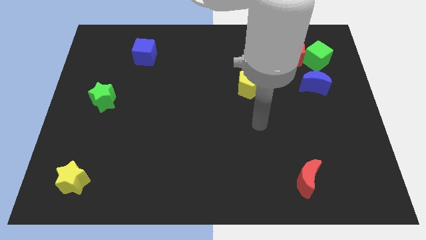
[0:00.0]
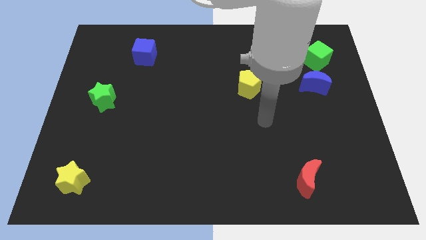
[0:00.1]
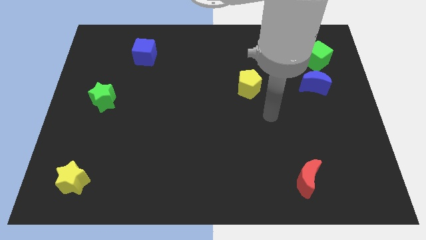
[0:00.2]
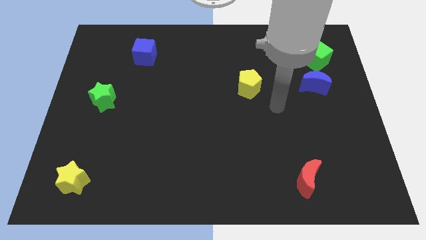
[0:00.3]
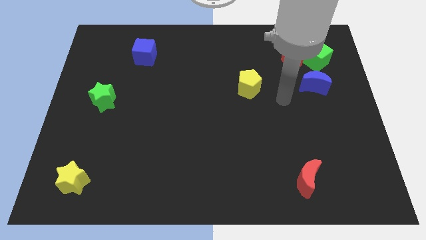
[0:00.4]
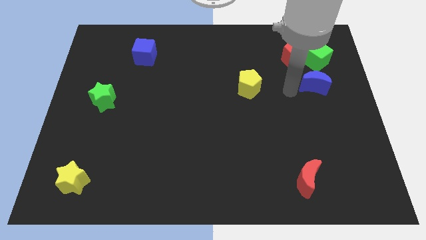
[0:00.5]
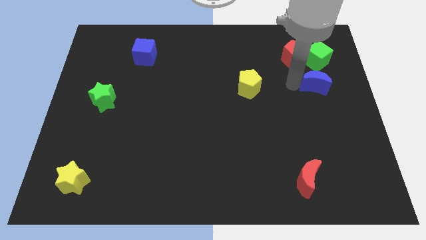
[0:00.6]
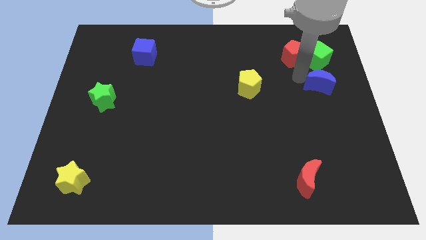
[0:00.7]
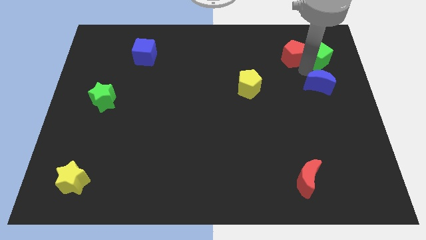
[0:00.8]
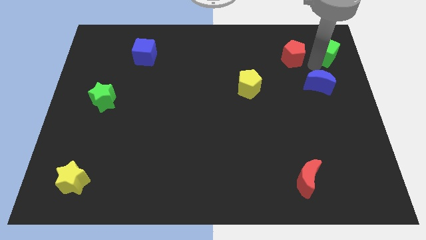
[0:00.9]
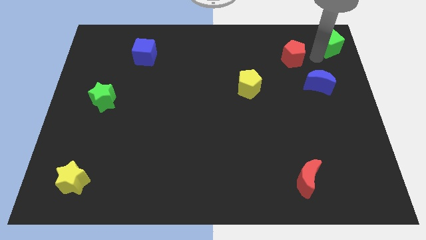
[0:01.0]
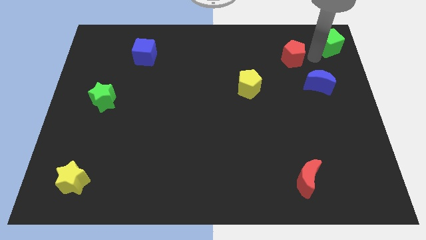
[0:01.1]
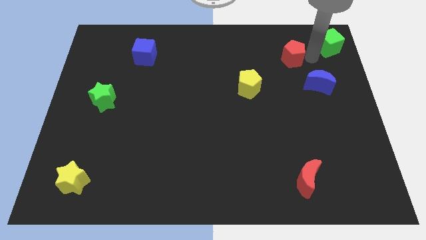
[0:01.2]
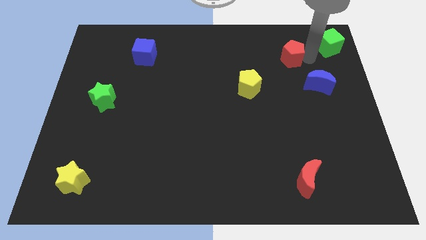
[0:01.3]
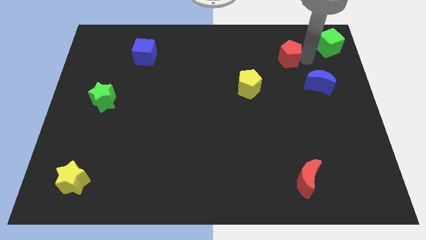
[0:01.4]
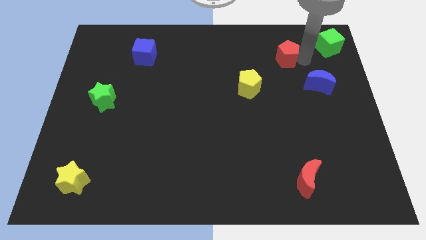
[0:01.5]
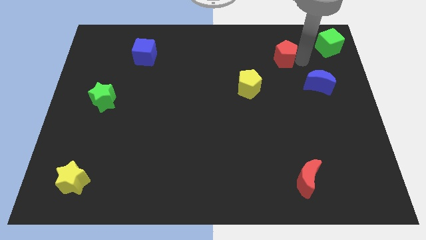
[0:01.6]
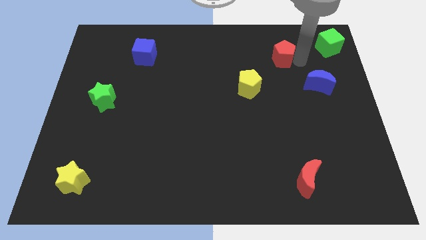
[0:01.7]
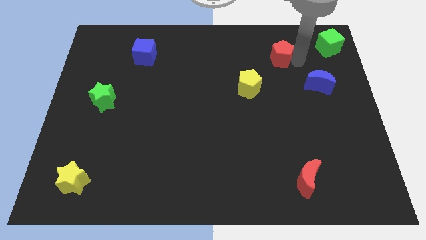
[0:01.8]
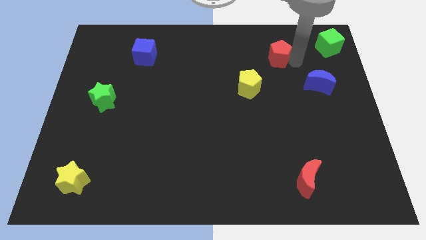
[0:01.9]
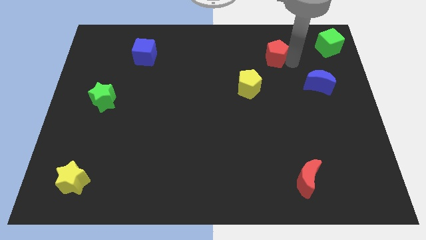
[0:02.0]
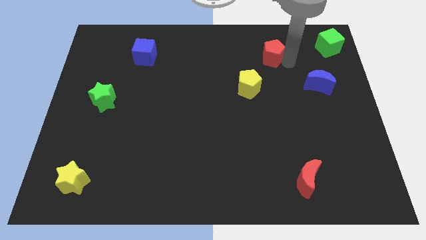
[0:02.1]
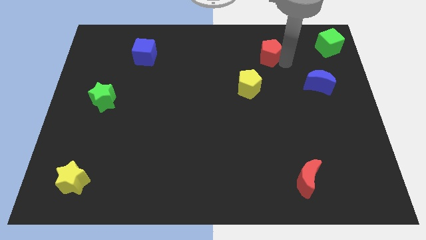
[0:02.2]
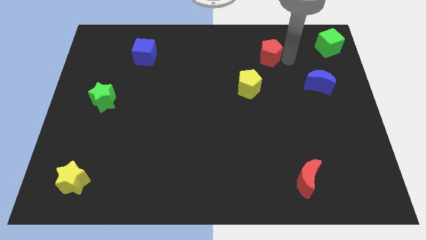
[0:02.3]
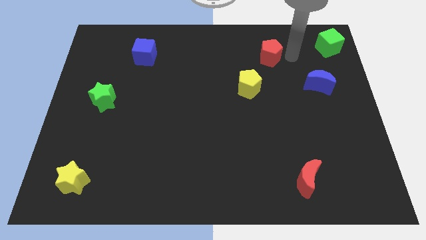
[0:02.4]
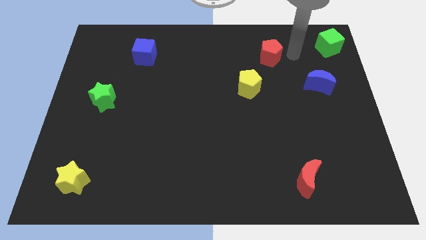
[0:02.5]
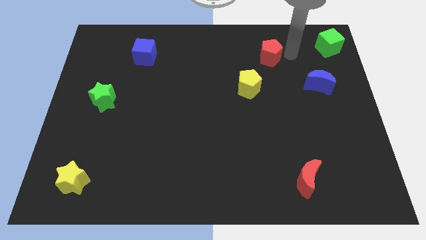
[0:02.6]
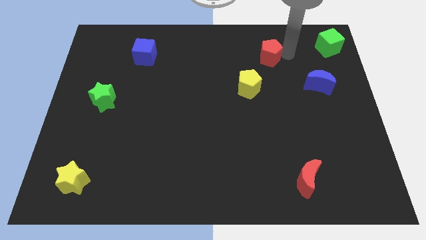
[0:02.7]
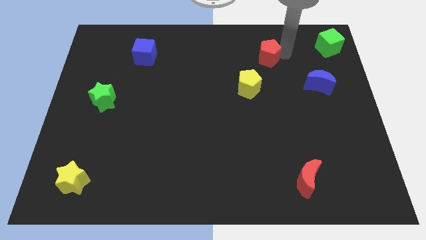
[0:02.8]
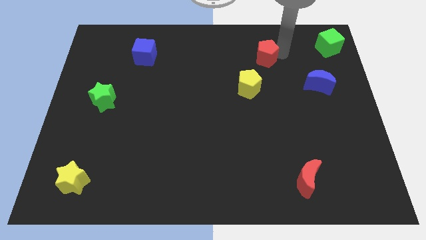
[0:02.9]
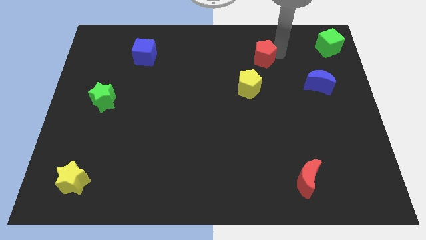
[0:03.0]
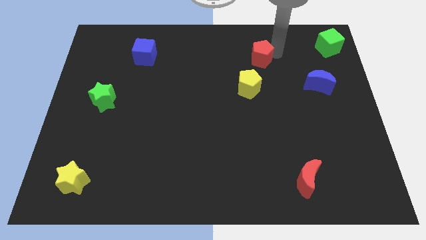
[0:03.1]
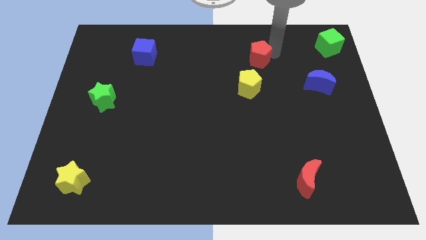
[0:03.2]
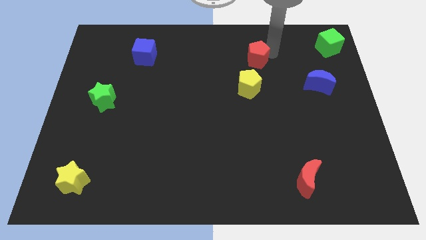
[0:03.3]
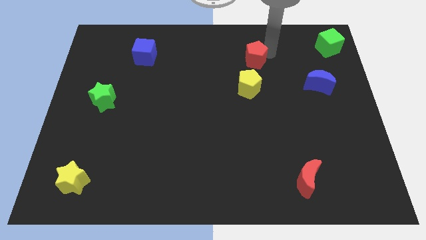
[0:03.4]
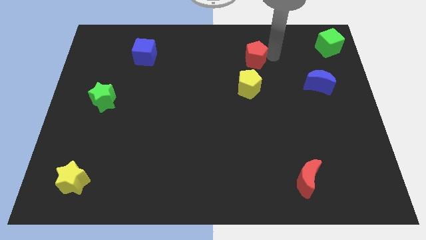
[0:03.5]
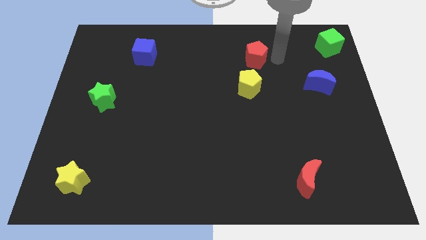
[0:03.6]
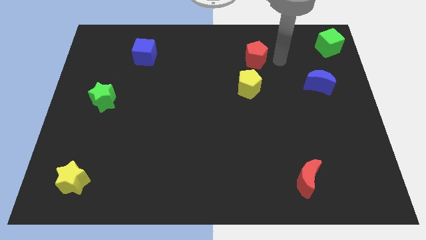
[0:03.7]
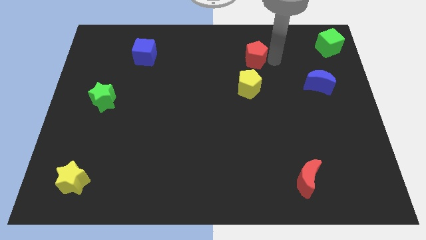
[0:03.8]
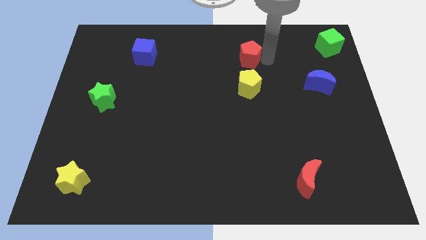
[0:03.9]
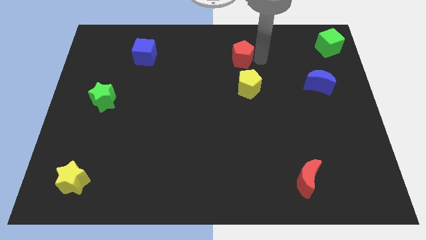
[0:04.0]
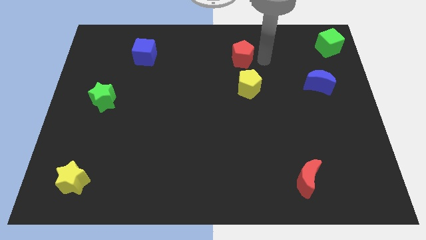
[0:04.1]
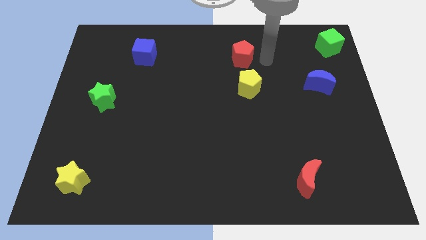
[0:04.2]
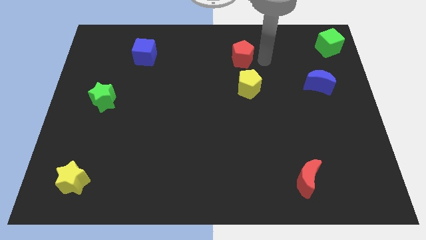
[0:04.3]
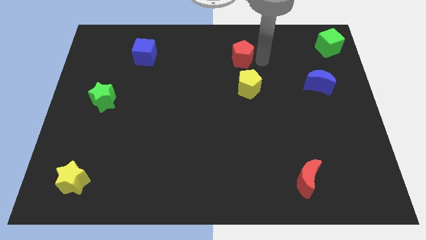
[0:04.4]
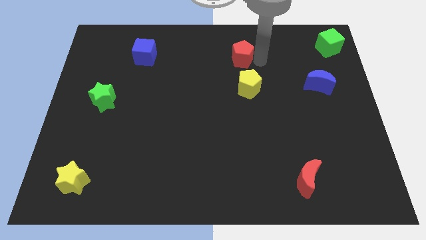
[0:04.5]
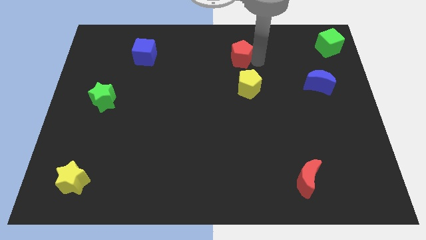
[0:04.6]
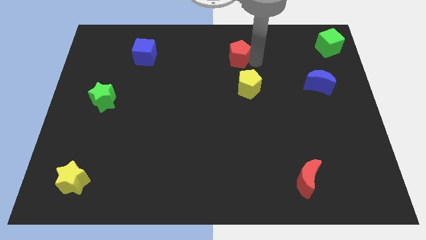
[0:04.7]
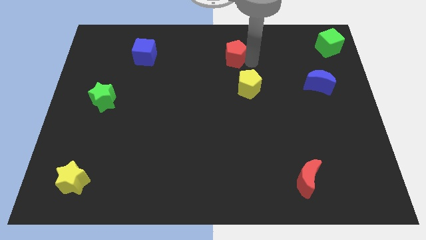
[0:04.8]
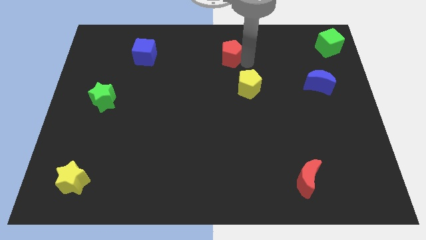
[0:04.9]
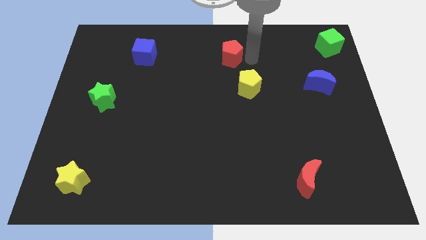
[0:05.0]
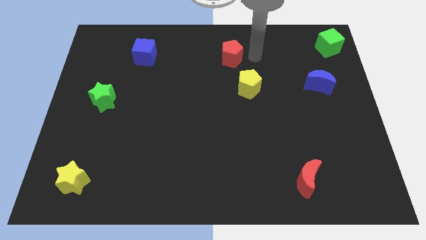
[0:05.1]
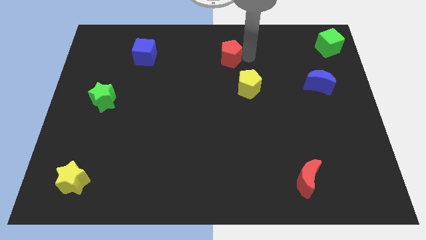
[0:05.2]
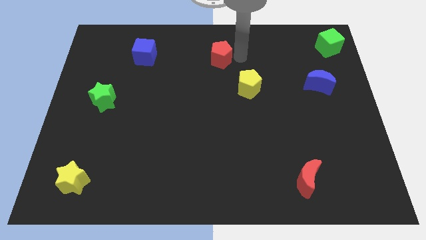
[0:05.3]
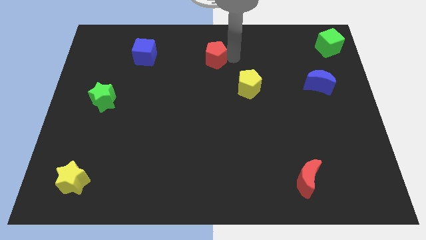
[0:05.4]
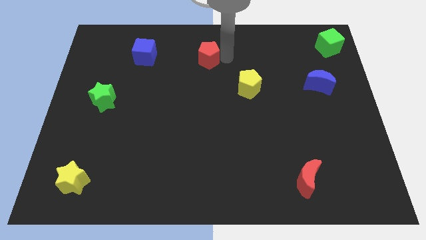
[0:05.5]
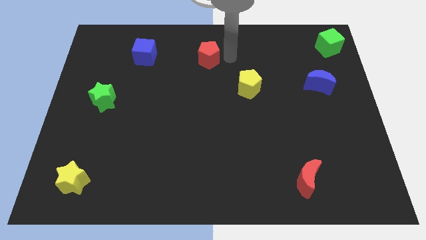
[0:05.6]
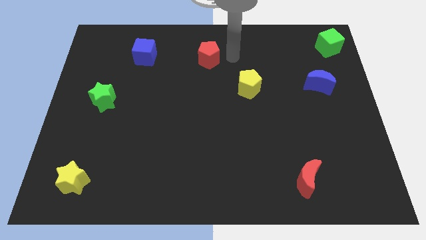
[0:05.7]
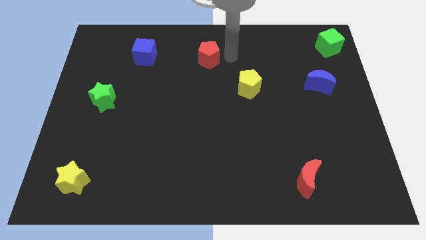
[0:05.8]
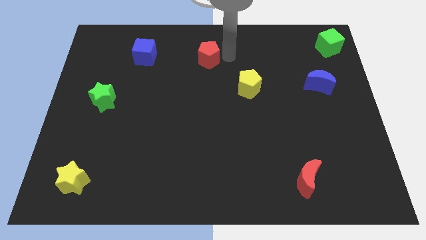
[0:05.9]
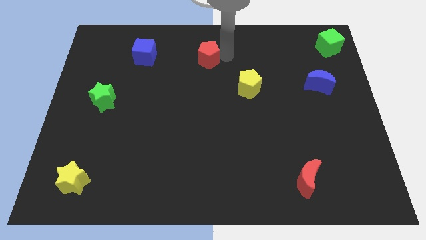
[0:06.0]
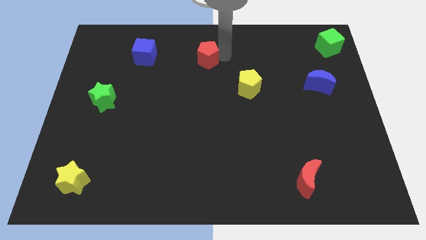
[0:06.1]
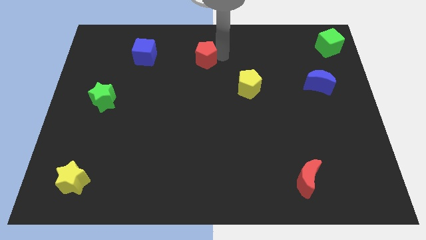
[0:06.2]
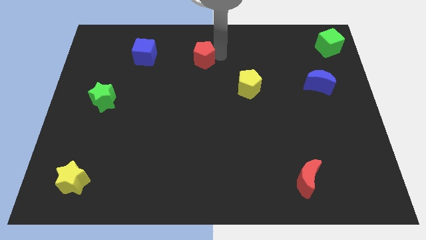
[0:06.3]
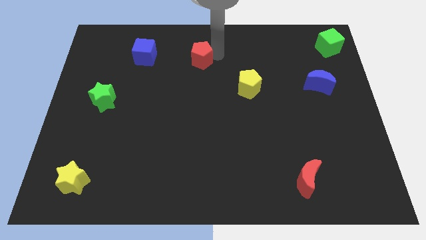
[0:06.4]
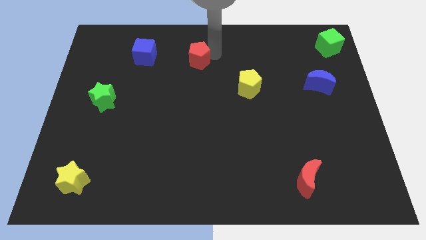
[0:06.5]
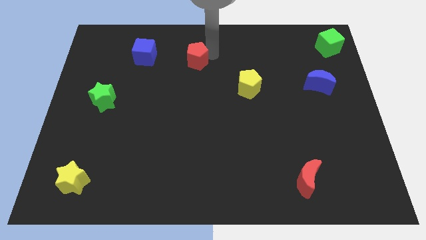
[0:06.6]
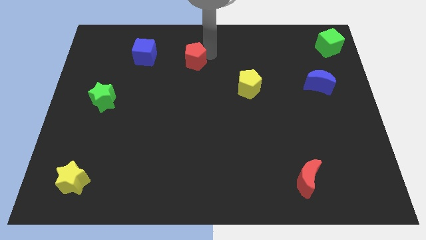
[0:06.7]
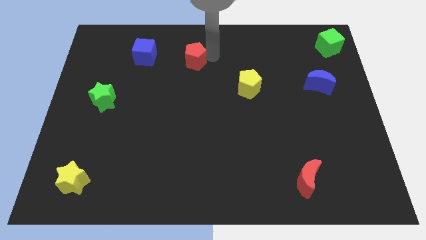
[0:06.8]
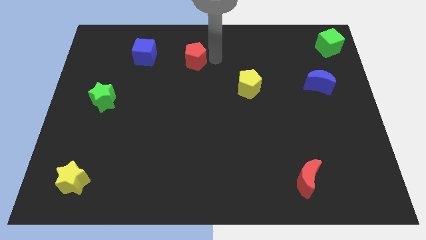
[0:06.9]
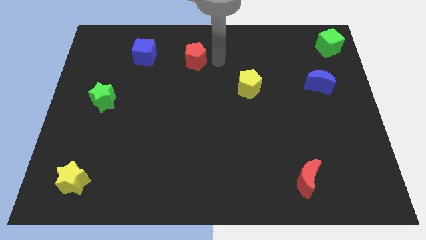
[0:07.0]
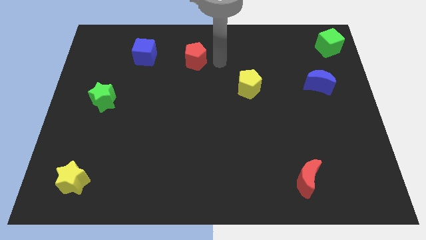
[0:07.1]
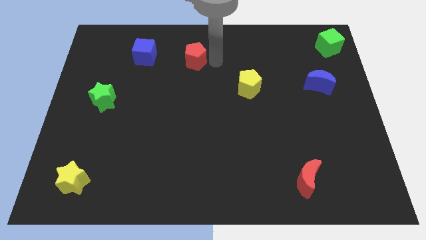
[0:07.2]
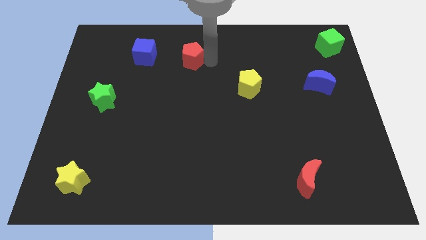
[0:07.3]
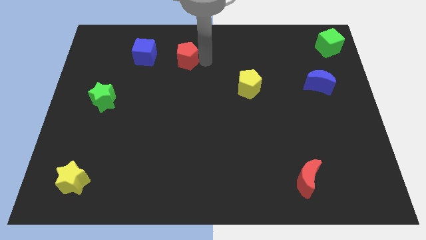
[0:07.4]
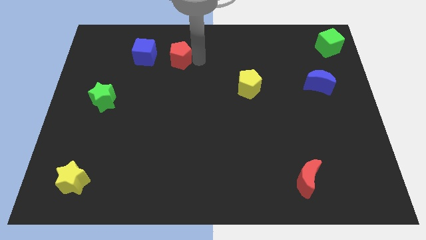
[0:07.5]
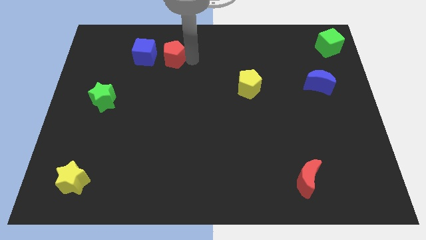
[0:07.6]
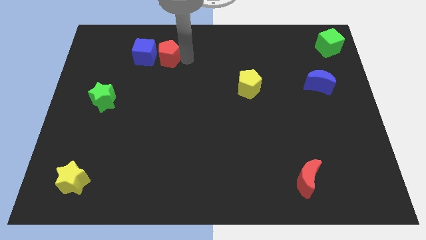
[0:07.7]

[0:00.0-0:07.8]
put the red pentagon towards the blue cube
